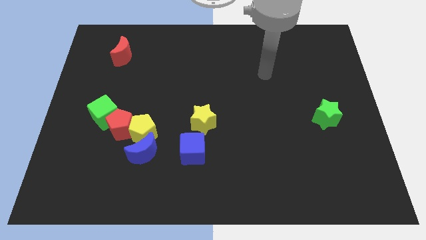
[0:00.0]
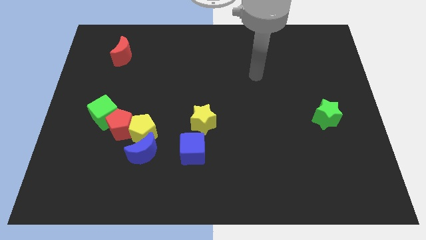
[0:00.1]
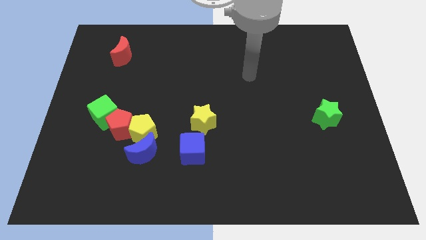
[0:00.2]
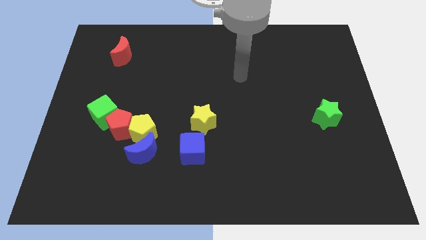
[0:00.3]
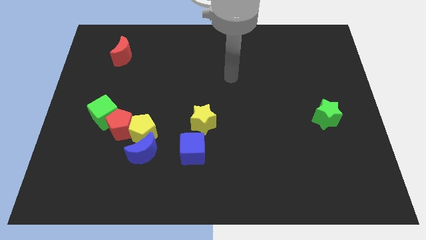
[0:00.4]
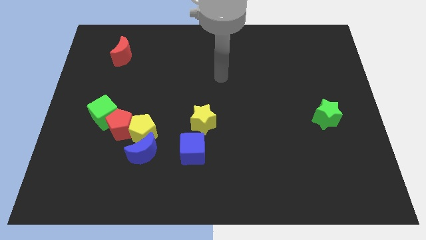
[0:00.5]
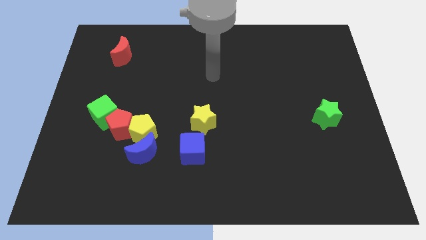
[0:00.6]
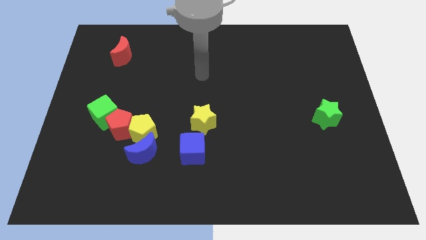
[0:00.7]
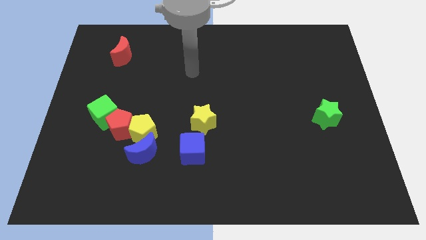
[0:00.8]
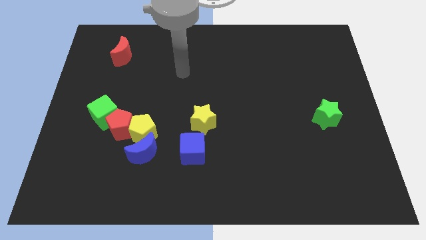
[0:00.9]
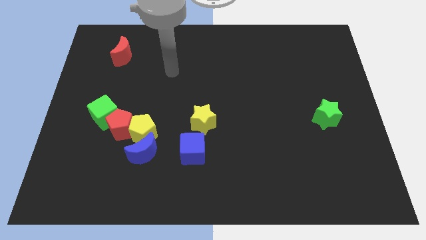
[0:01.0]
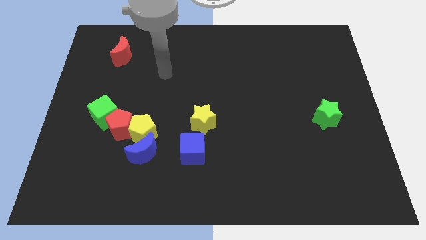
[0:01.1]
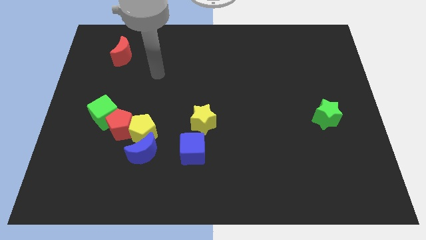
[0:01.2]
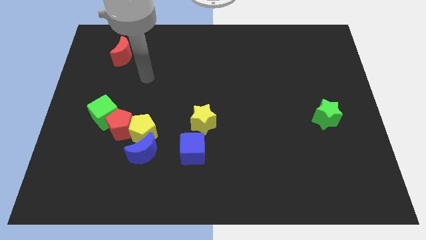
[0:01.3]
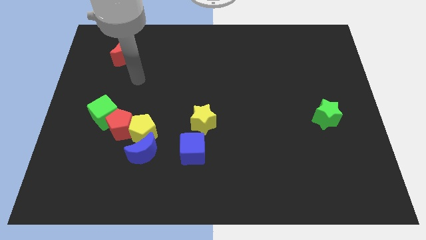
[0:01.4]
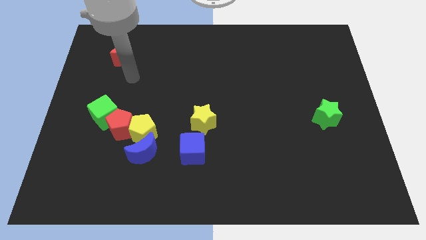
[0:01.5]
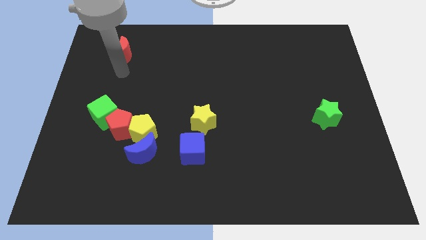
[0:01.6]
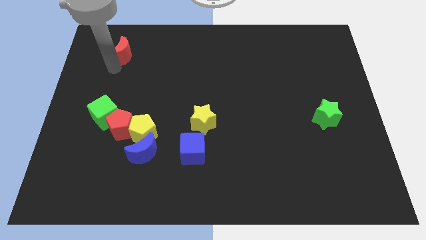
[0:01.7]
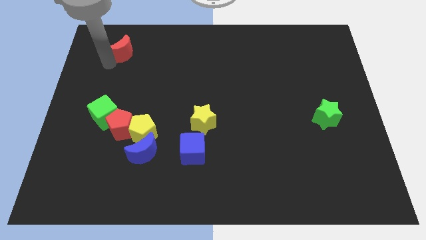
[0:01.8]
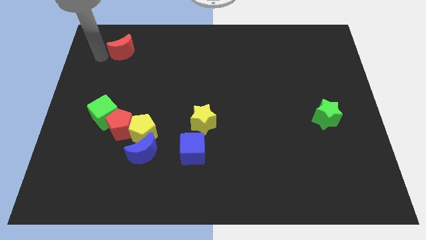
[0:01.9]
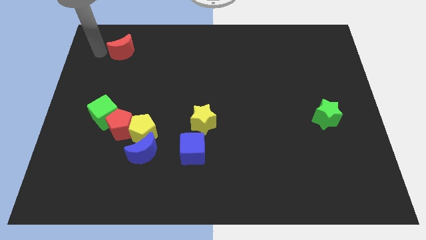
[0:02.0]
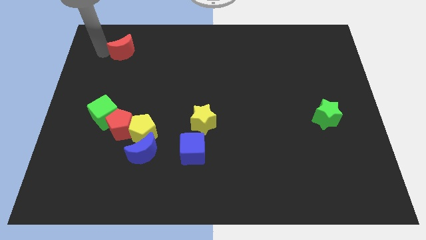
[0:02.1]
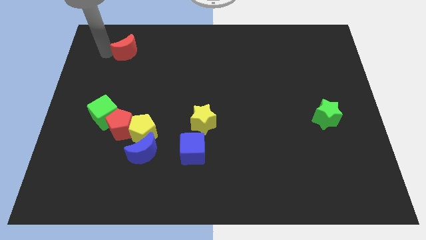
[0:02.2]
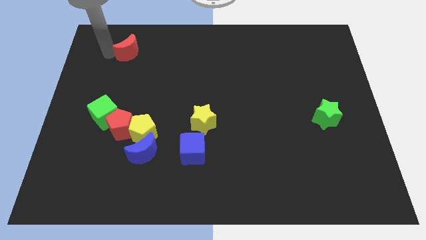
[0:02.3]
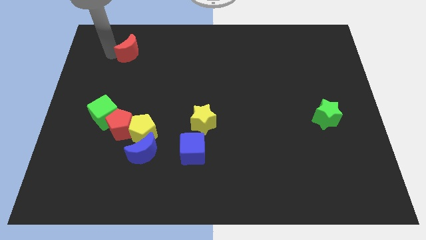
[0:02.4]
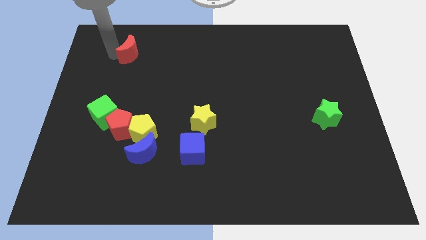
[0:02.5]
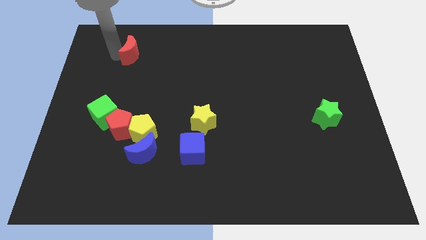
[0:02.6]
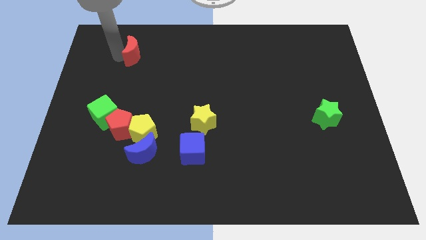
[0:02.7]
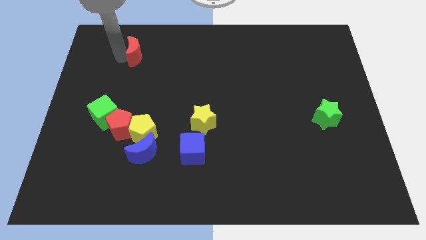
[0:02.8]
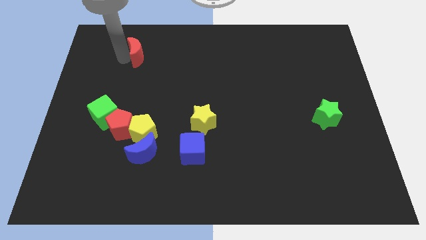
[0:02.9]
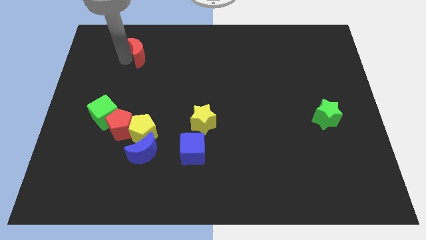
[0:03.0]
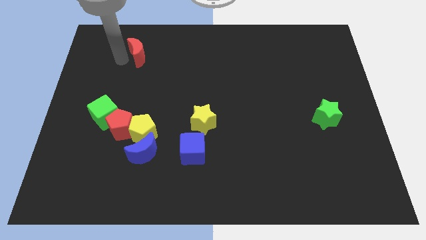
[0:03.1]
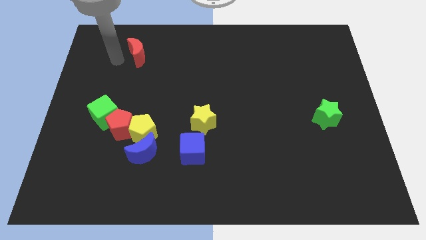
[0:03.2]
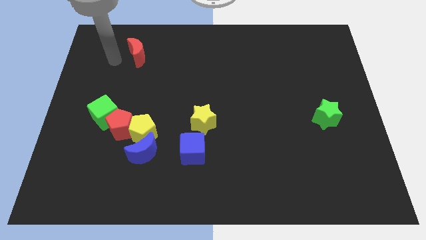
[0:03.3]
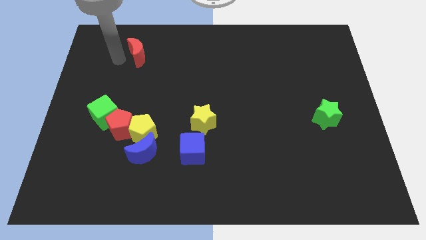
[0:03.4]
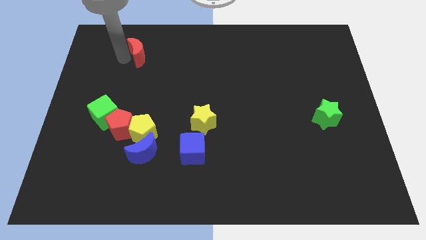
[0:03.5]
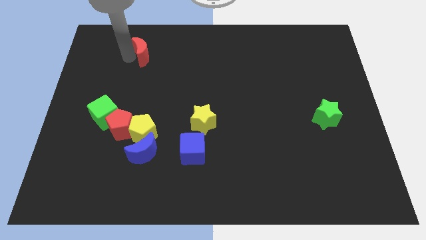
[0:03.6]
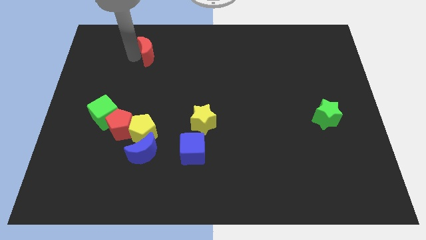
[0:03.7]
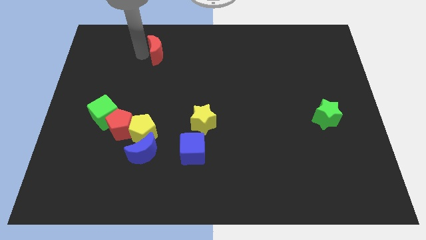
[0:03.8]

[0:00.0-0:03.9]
move the red moon to the right a bit

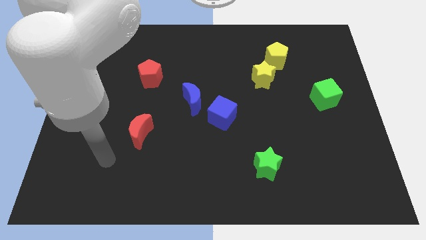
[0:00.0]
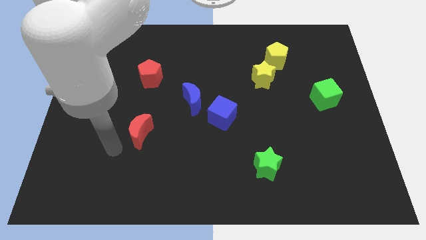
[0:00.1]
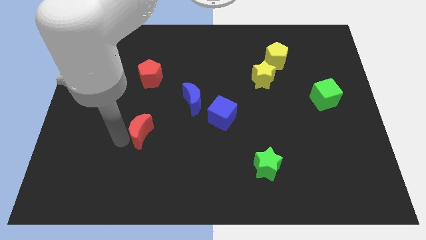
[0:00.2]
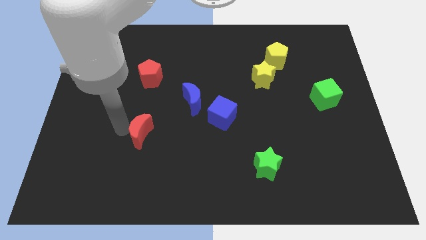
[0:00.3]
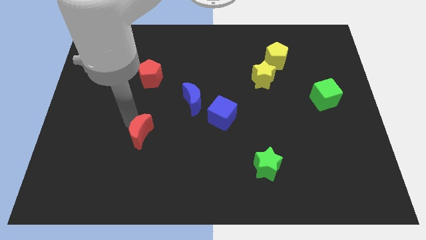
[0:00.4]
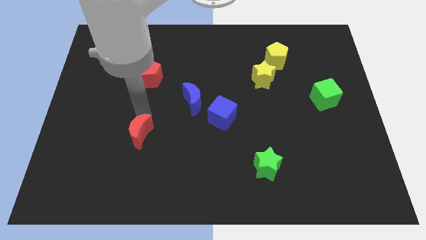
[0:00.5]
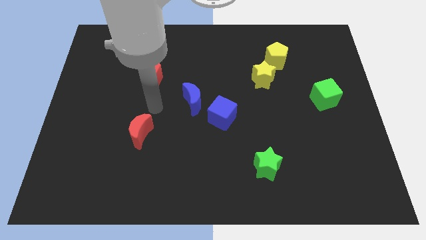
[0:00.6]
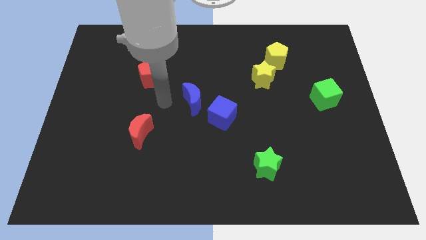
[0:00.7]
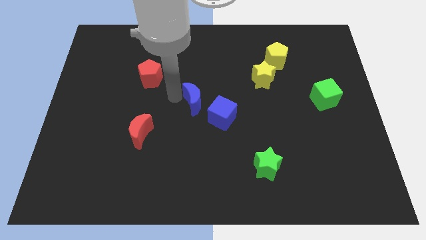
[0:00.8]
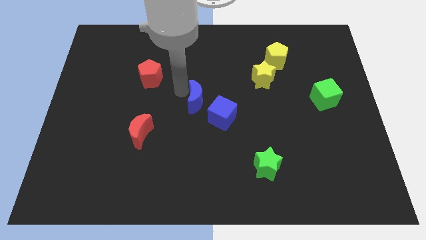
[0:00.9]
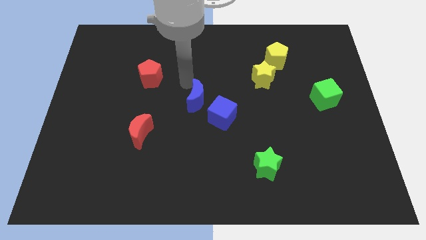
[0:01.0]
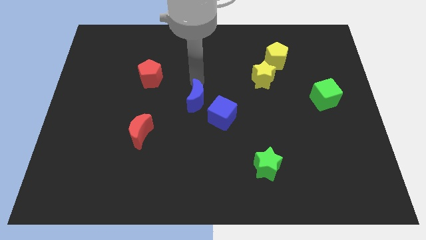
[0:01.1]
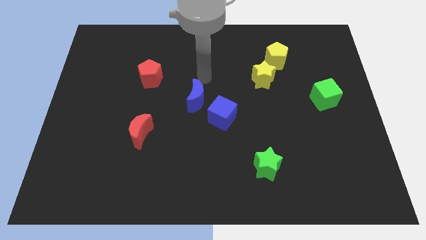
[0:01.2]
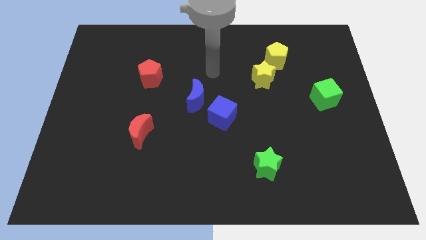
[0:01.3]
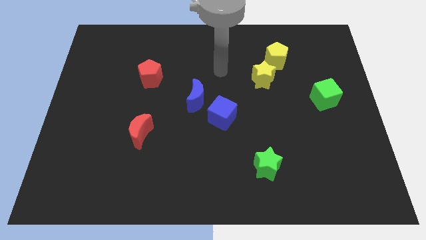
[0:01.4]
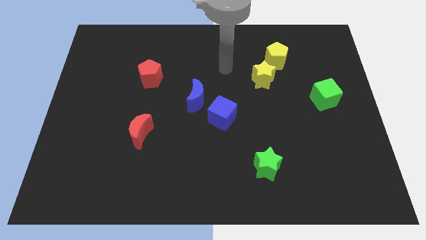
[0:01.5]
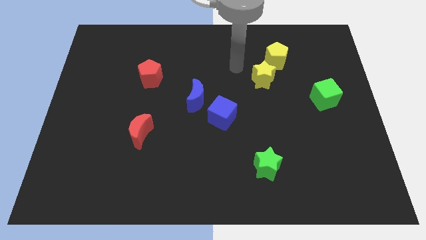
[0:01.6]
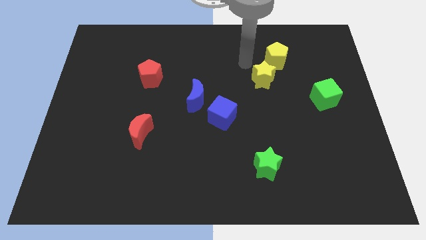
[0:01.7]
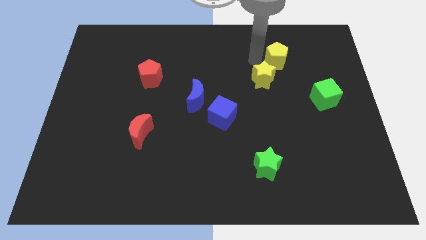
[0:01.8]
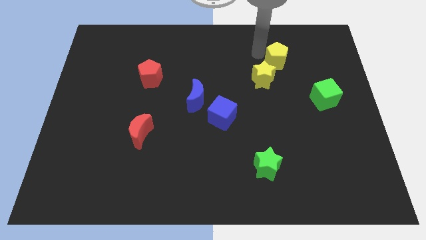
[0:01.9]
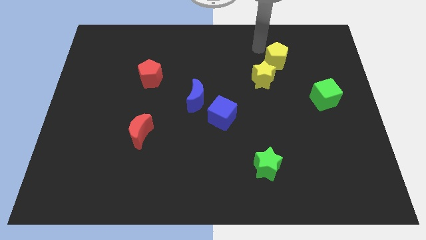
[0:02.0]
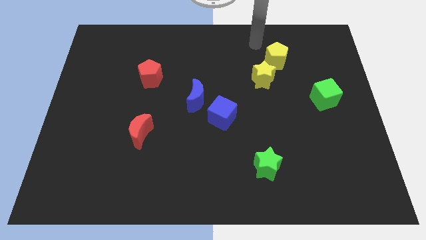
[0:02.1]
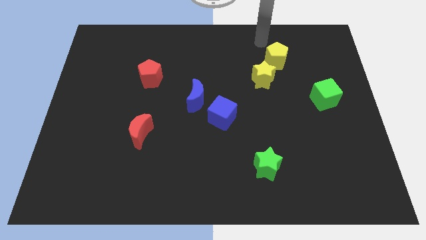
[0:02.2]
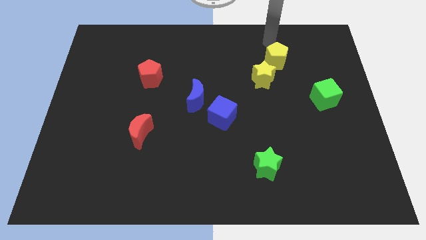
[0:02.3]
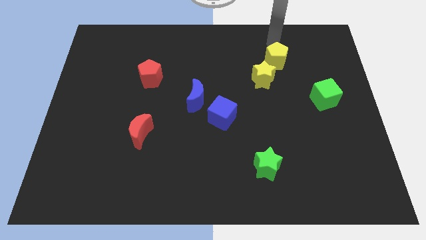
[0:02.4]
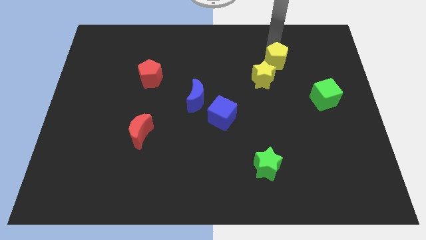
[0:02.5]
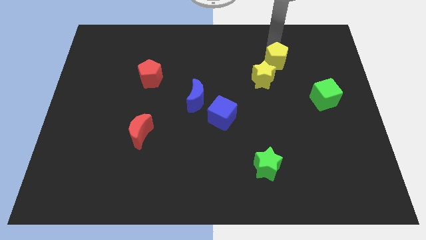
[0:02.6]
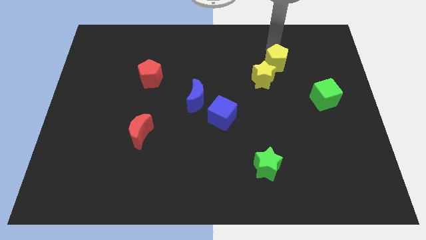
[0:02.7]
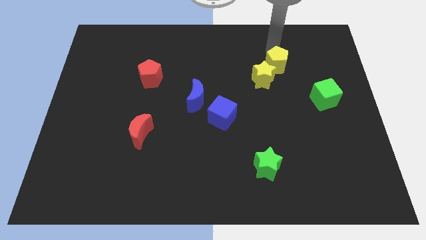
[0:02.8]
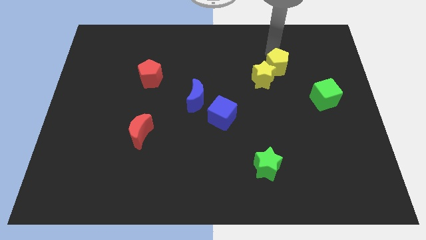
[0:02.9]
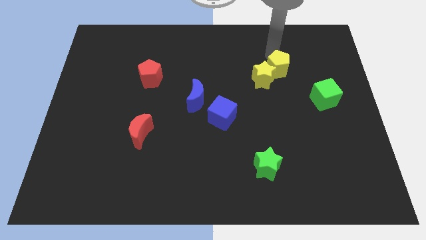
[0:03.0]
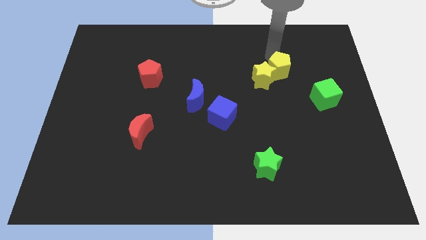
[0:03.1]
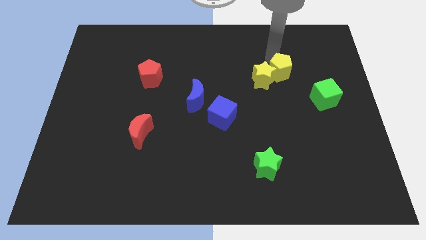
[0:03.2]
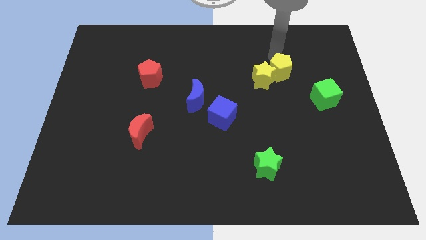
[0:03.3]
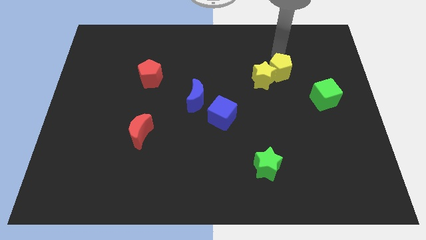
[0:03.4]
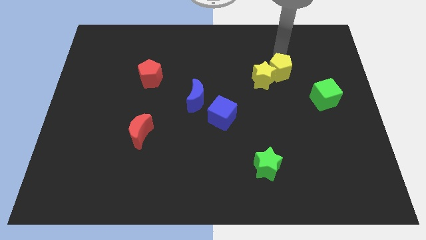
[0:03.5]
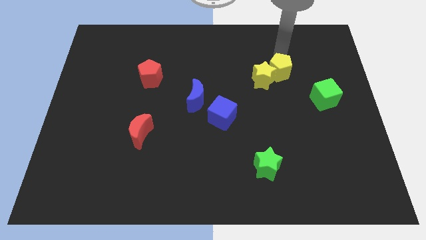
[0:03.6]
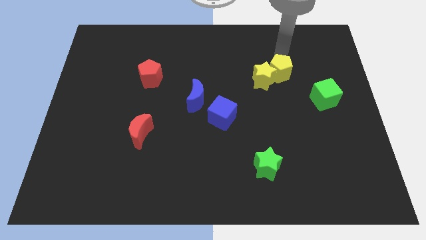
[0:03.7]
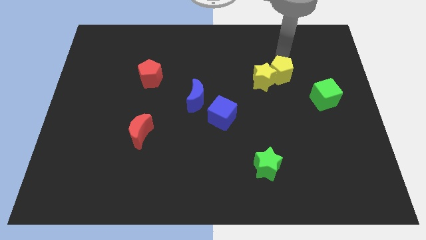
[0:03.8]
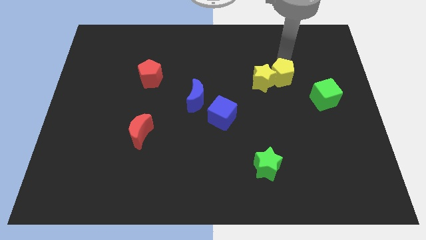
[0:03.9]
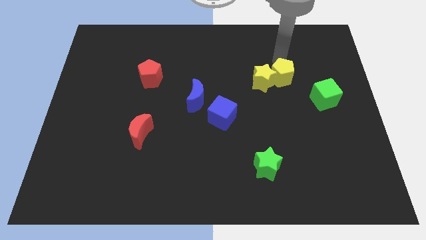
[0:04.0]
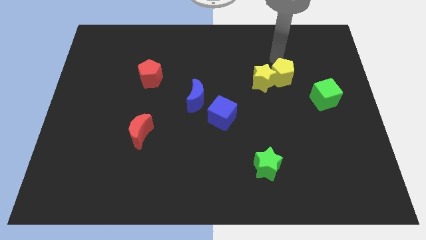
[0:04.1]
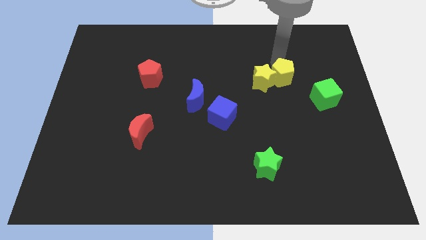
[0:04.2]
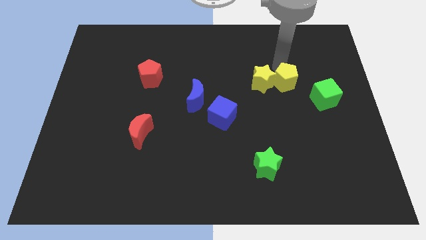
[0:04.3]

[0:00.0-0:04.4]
slightly push the yellow pentagon down
